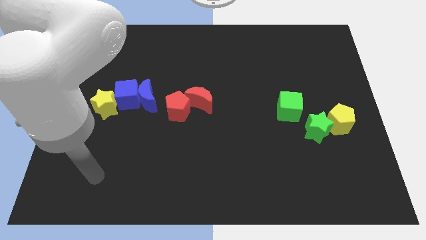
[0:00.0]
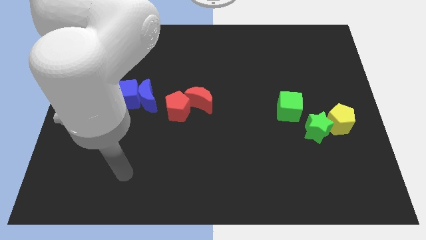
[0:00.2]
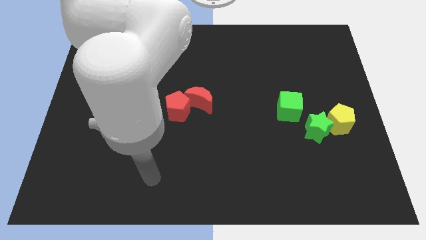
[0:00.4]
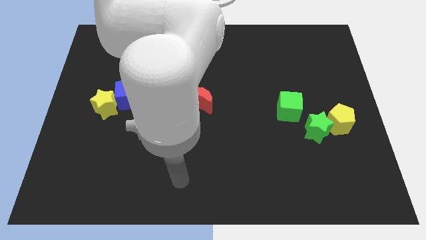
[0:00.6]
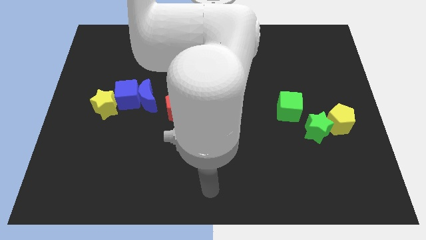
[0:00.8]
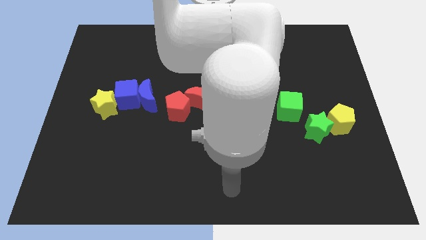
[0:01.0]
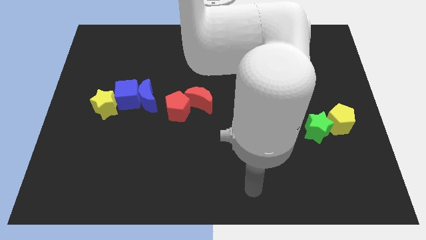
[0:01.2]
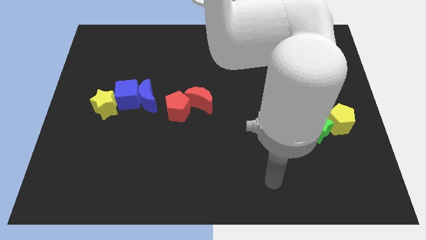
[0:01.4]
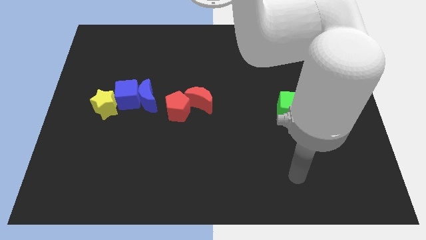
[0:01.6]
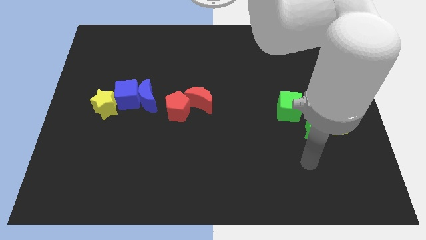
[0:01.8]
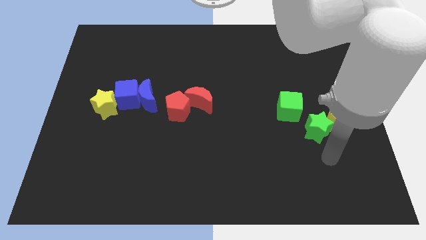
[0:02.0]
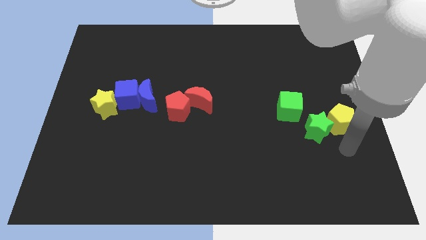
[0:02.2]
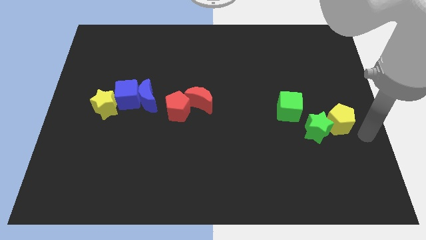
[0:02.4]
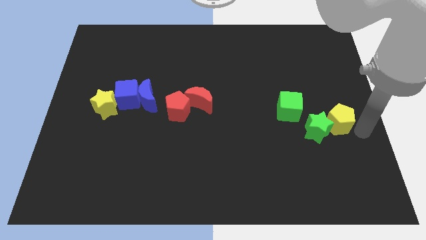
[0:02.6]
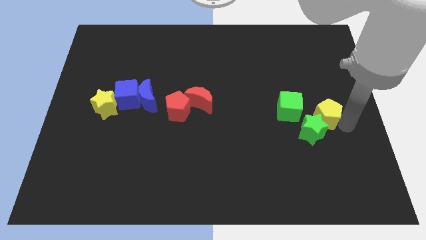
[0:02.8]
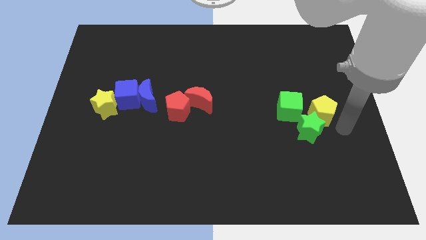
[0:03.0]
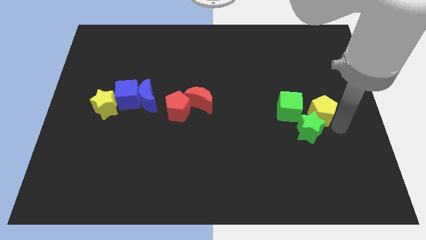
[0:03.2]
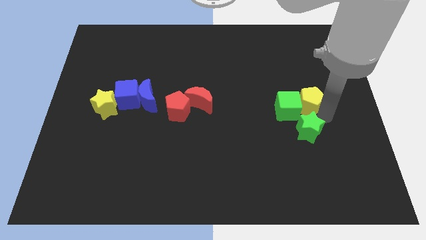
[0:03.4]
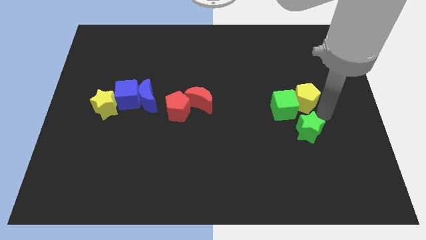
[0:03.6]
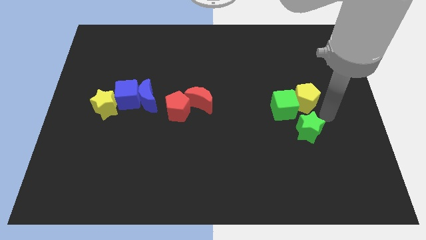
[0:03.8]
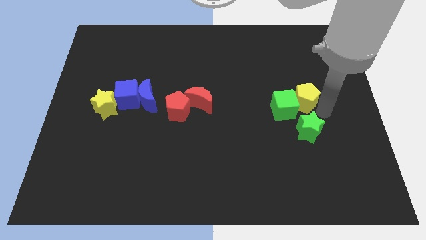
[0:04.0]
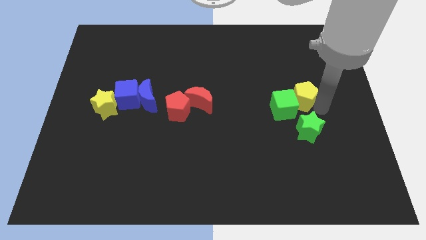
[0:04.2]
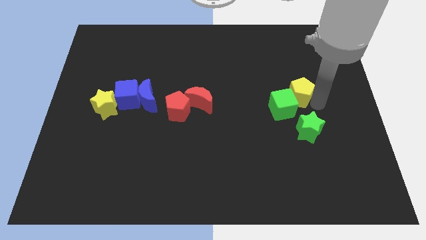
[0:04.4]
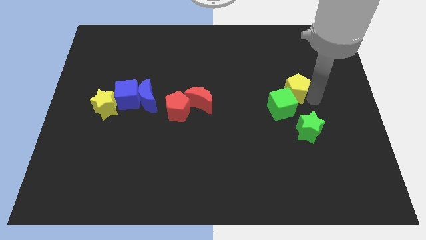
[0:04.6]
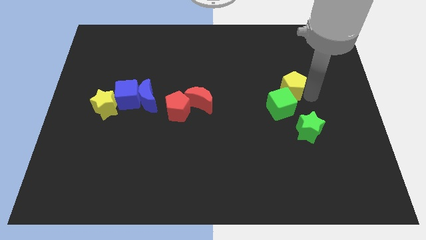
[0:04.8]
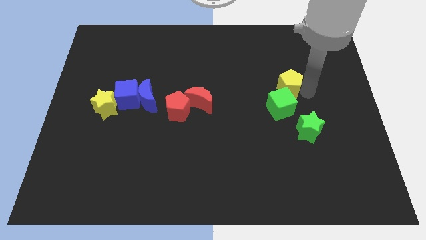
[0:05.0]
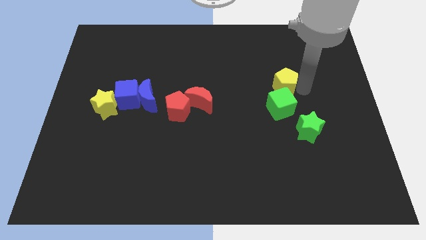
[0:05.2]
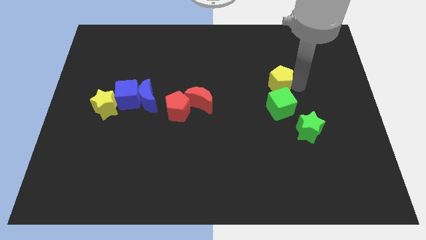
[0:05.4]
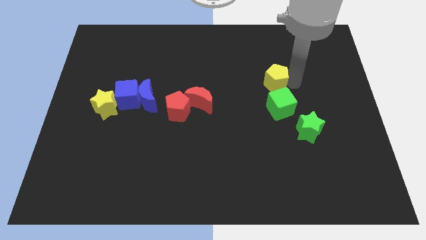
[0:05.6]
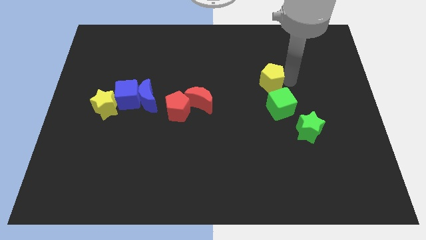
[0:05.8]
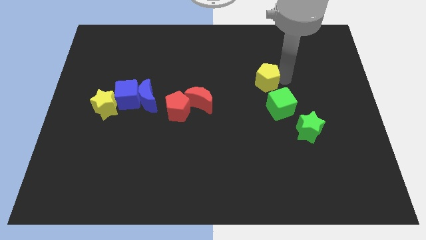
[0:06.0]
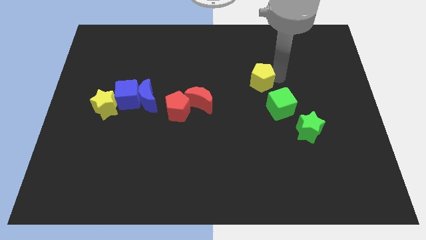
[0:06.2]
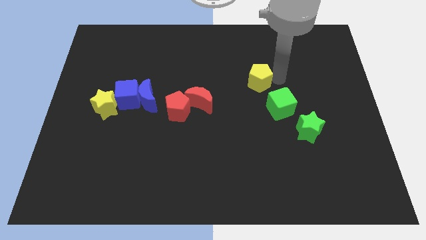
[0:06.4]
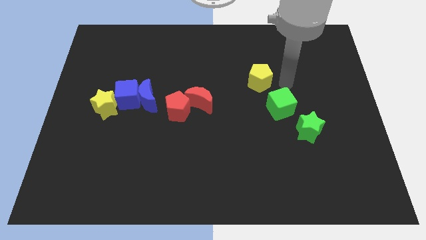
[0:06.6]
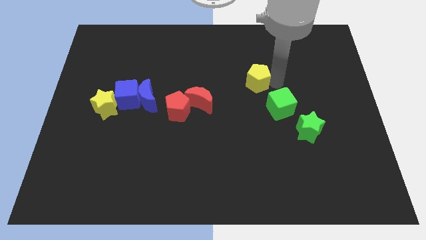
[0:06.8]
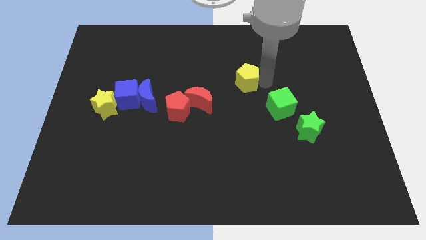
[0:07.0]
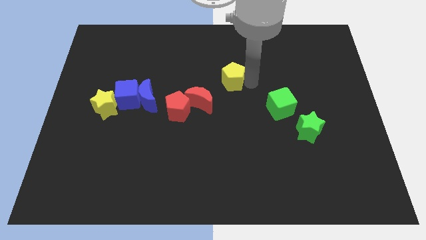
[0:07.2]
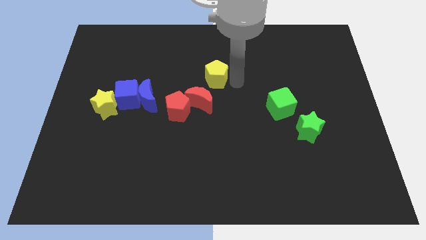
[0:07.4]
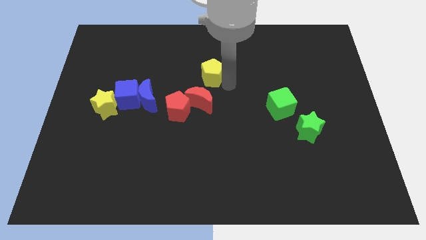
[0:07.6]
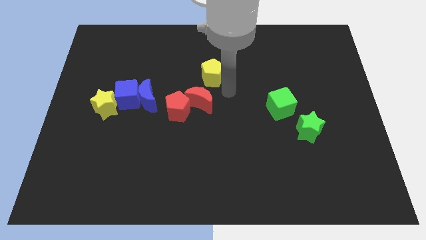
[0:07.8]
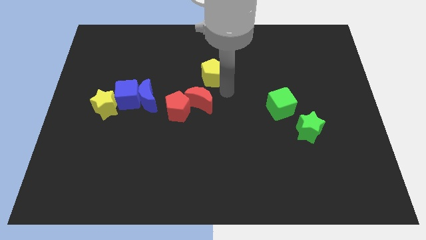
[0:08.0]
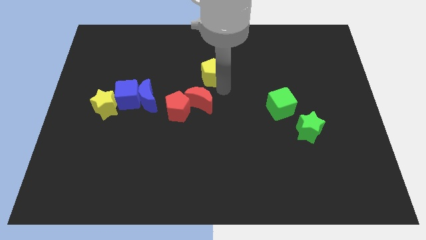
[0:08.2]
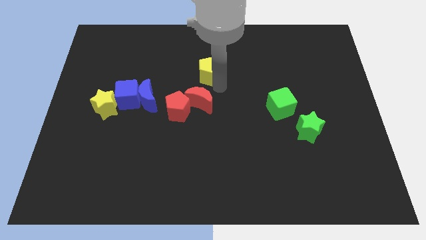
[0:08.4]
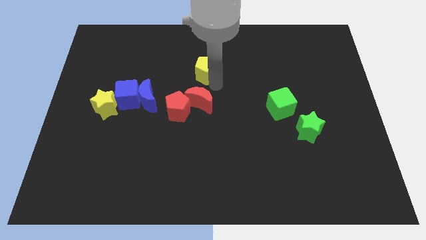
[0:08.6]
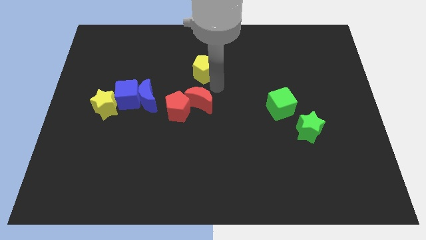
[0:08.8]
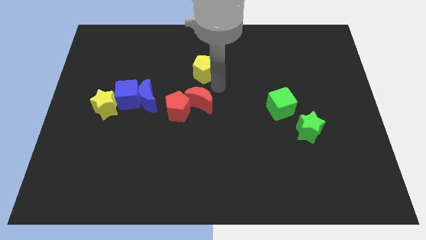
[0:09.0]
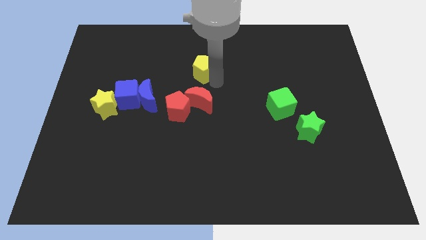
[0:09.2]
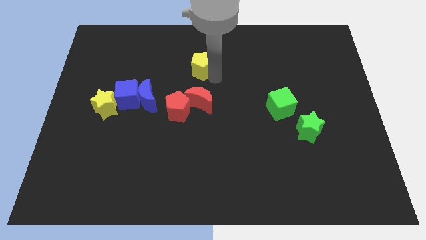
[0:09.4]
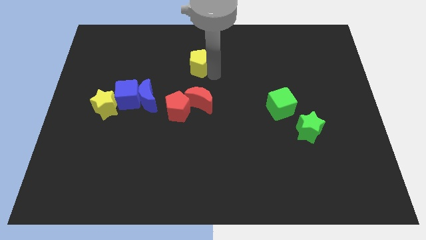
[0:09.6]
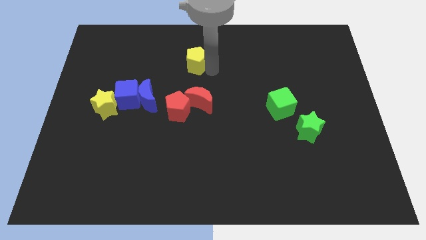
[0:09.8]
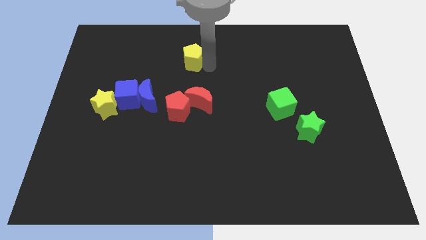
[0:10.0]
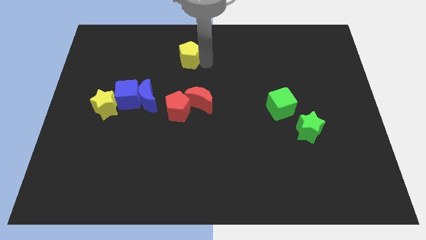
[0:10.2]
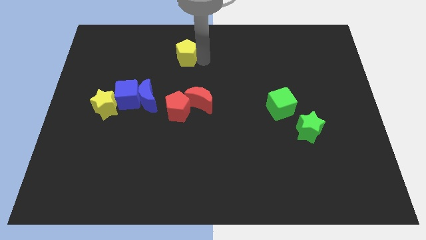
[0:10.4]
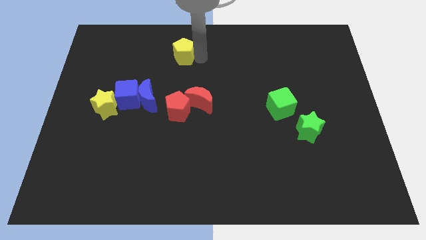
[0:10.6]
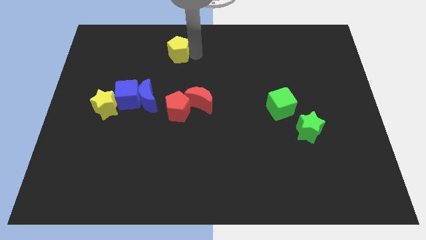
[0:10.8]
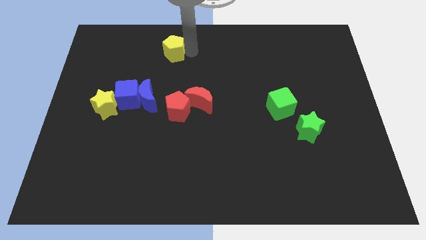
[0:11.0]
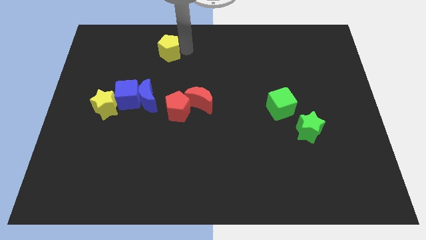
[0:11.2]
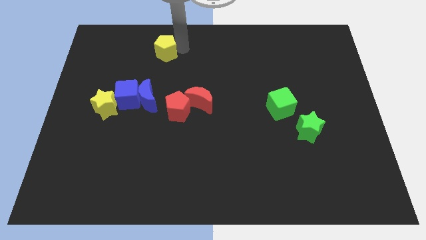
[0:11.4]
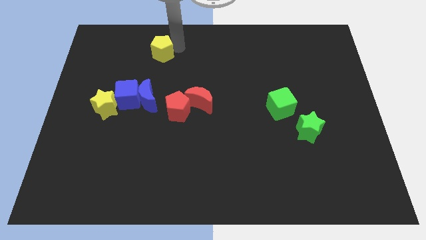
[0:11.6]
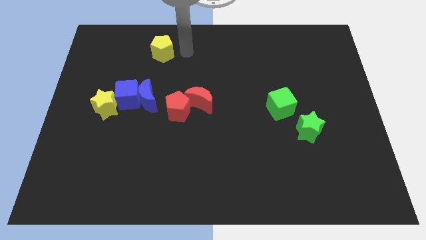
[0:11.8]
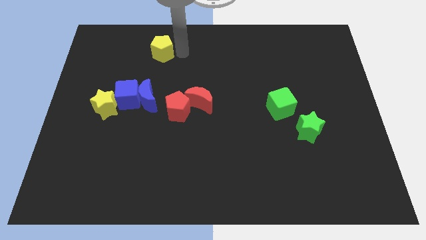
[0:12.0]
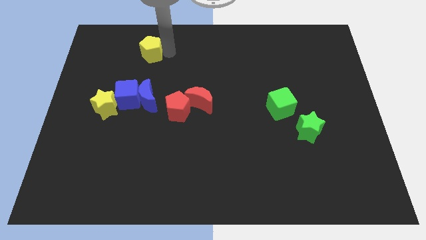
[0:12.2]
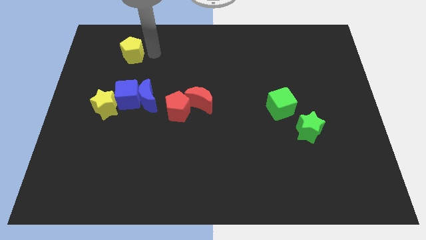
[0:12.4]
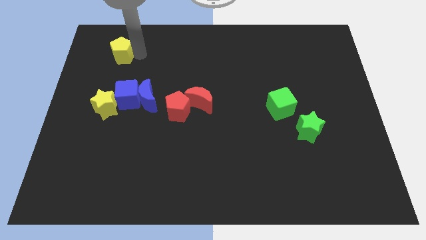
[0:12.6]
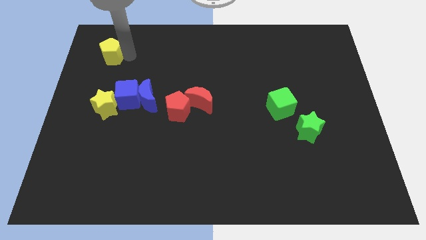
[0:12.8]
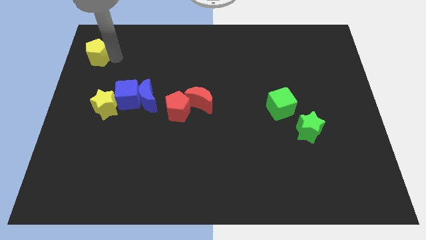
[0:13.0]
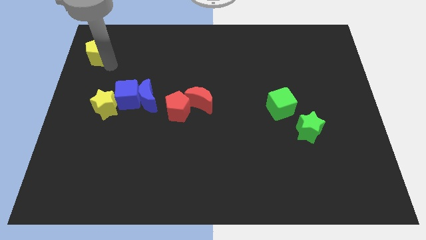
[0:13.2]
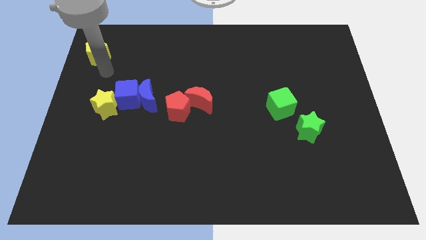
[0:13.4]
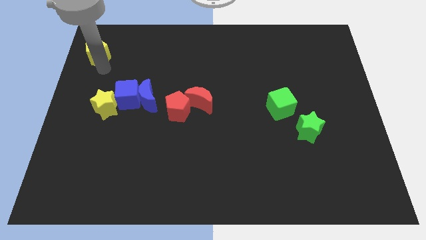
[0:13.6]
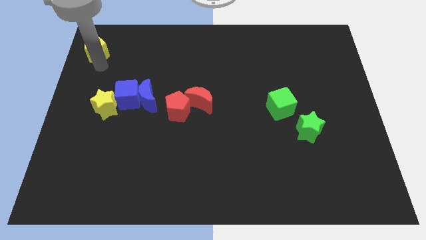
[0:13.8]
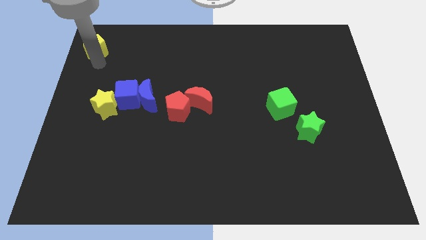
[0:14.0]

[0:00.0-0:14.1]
push the yellow pentagon to the top left of the board
